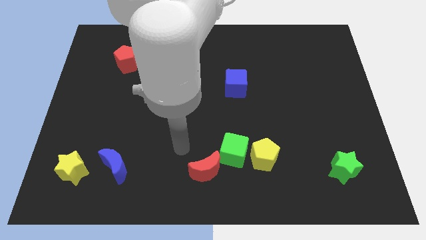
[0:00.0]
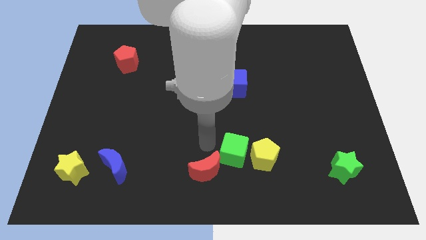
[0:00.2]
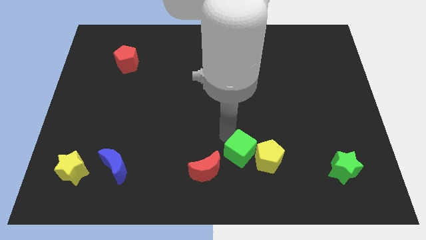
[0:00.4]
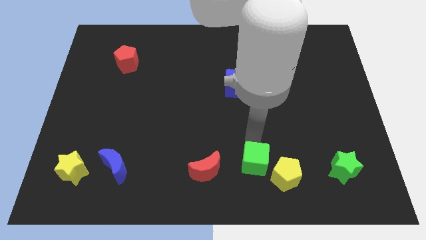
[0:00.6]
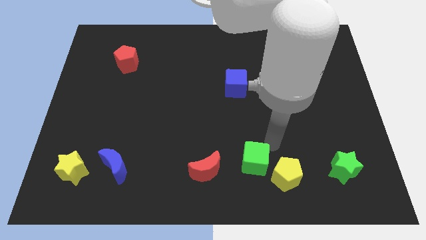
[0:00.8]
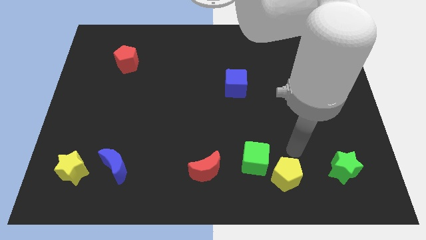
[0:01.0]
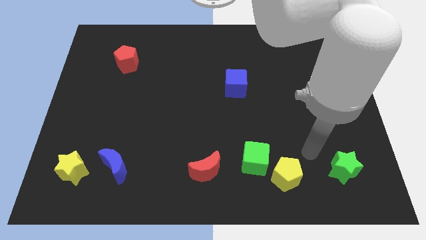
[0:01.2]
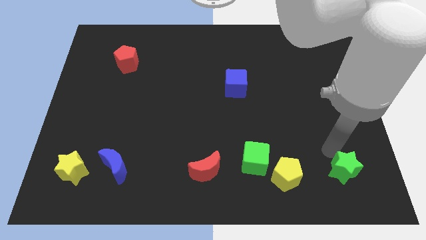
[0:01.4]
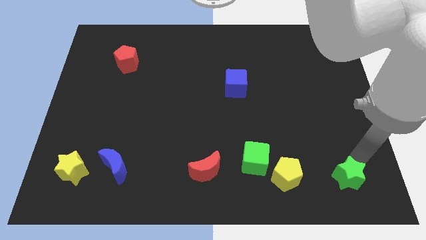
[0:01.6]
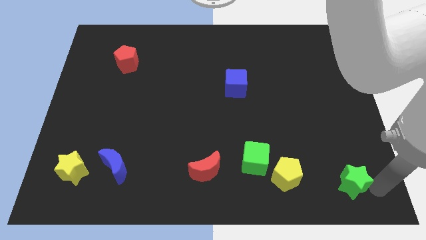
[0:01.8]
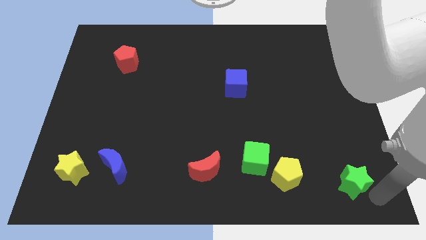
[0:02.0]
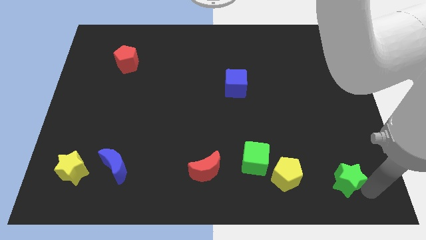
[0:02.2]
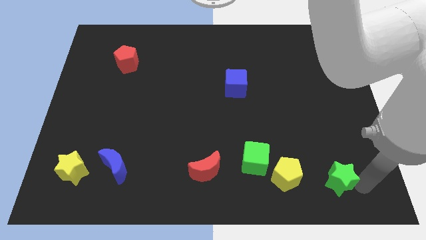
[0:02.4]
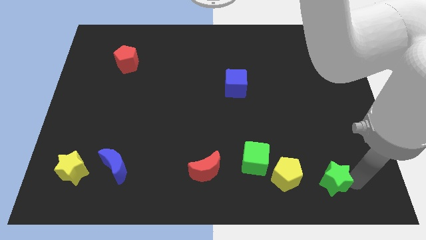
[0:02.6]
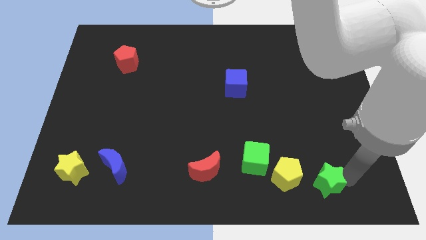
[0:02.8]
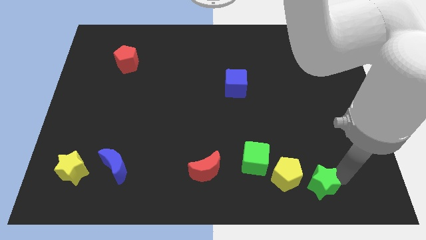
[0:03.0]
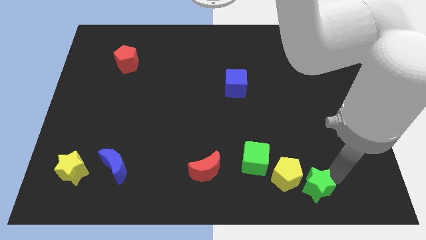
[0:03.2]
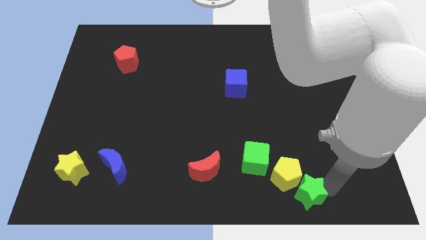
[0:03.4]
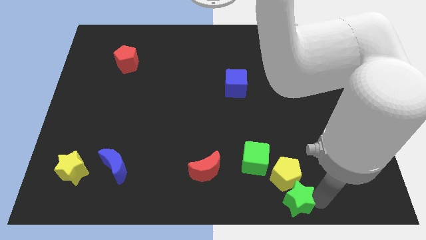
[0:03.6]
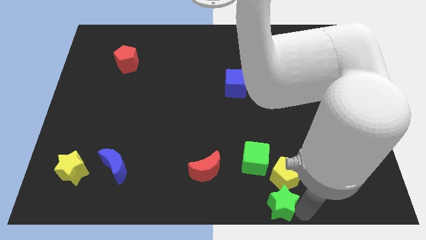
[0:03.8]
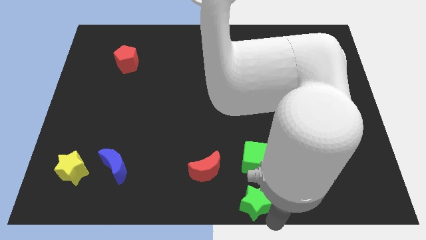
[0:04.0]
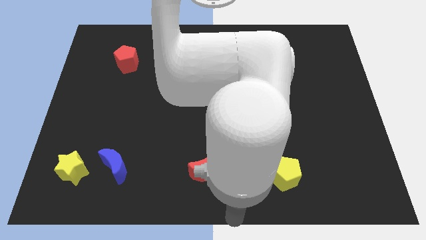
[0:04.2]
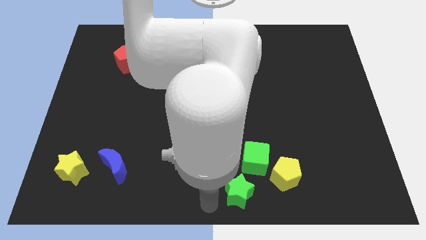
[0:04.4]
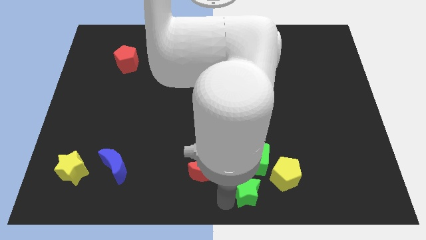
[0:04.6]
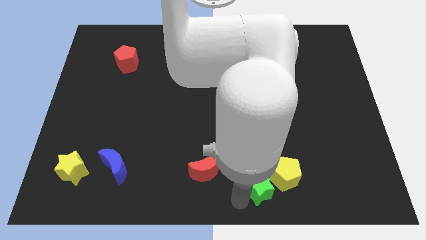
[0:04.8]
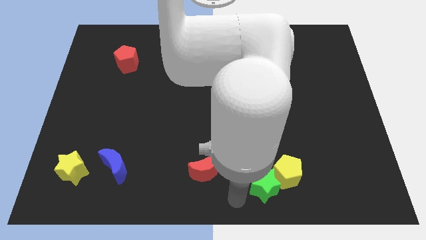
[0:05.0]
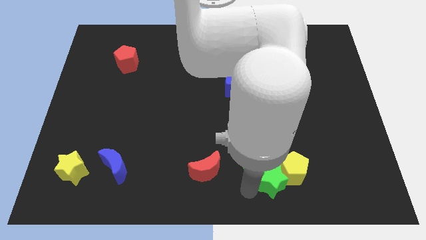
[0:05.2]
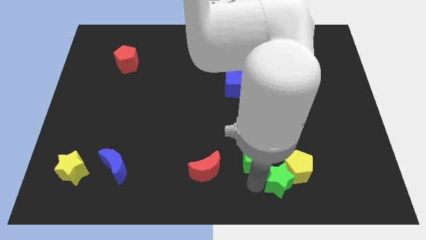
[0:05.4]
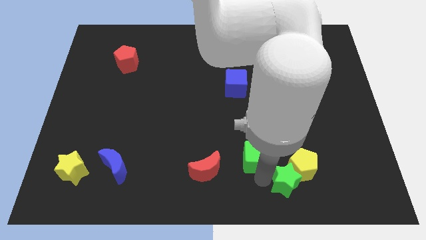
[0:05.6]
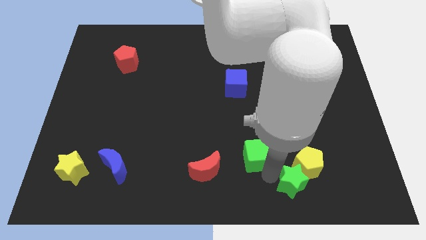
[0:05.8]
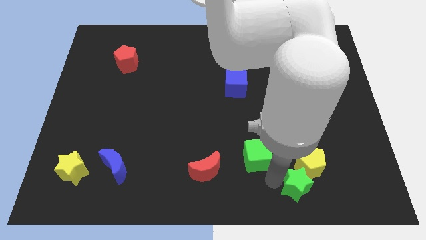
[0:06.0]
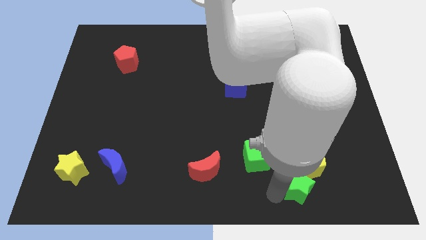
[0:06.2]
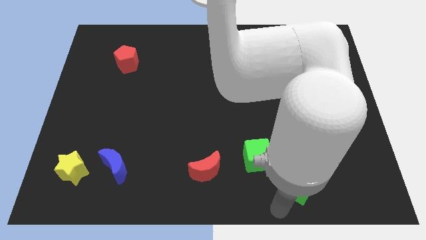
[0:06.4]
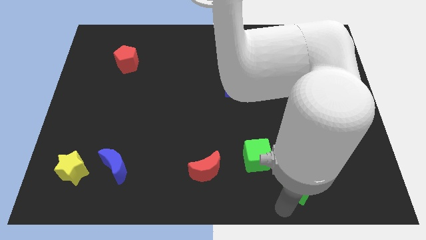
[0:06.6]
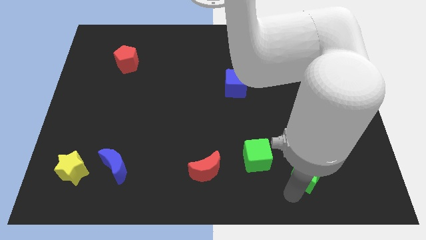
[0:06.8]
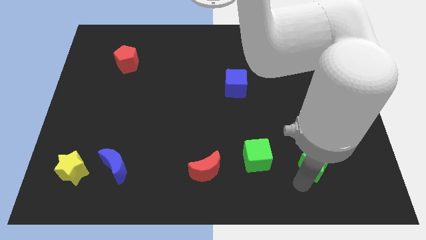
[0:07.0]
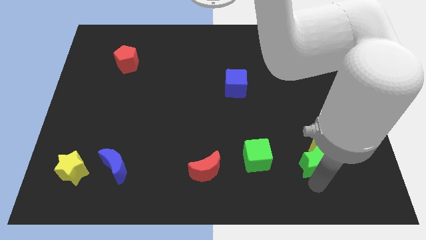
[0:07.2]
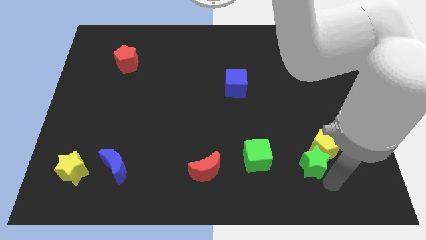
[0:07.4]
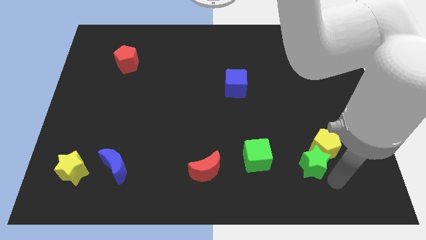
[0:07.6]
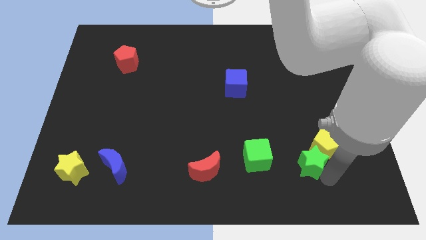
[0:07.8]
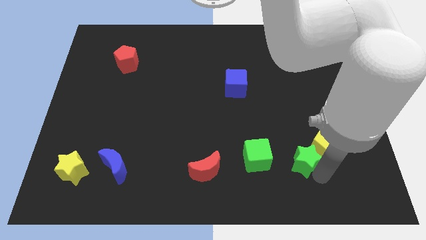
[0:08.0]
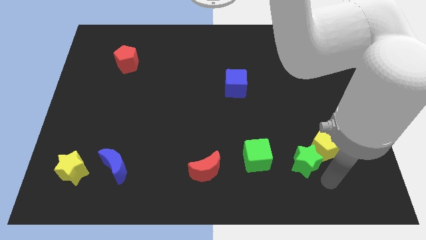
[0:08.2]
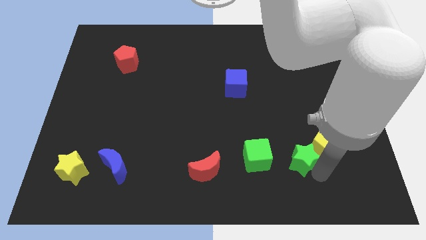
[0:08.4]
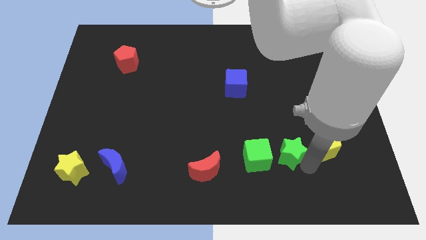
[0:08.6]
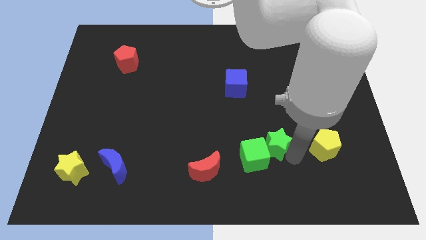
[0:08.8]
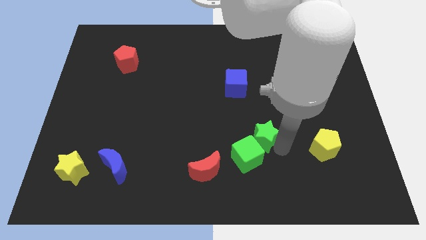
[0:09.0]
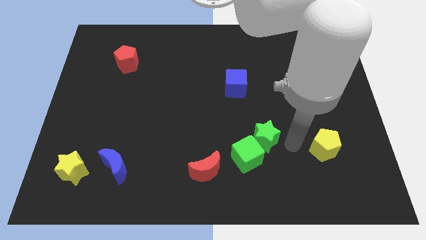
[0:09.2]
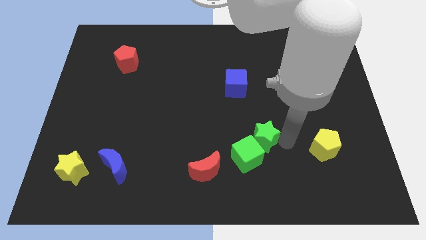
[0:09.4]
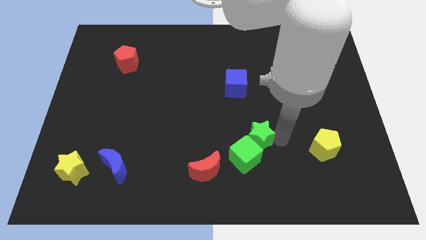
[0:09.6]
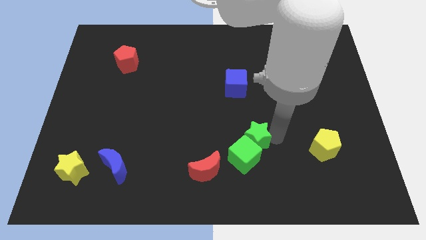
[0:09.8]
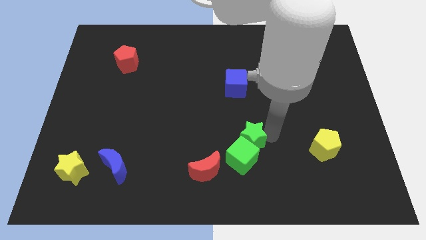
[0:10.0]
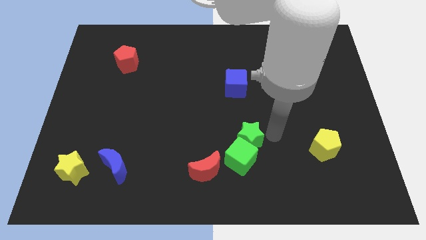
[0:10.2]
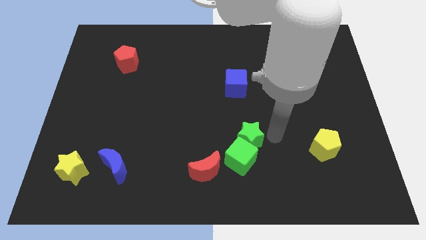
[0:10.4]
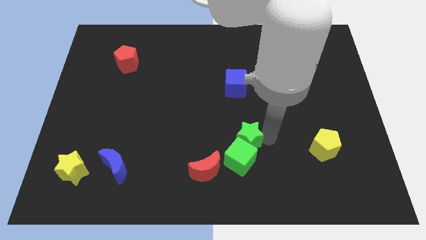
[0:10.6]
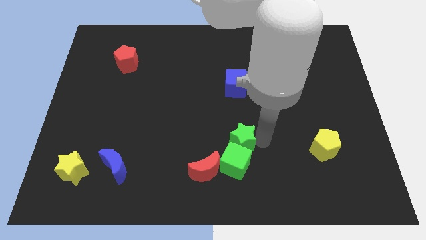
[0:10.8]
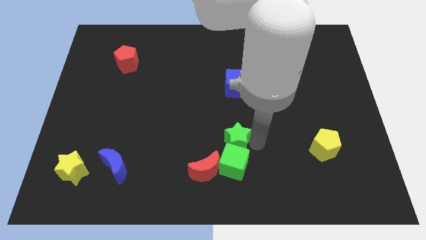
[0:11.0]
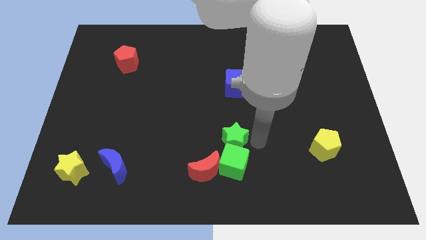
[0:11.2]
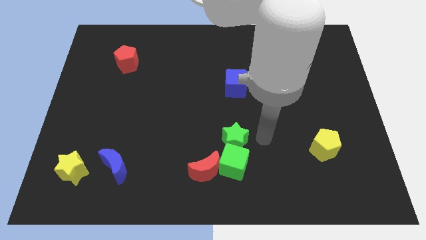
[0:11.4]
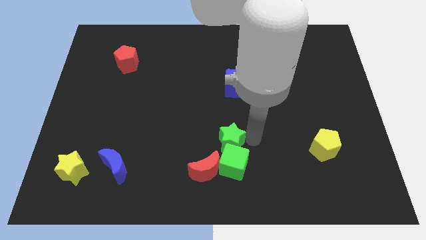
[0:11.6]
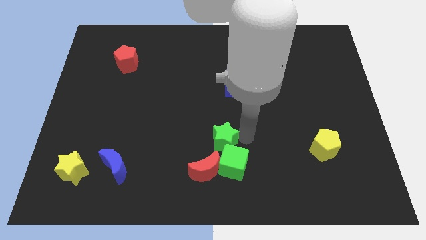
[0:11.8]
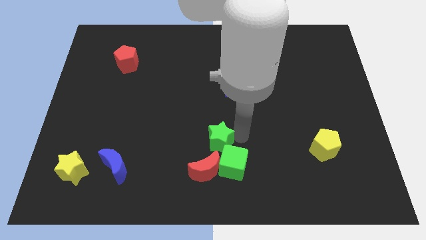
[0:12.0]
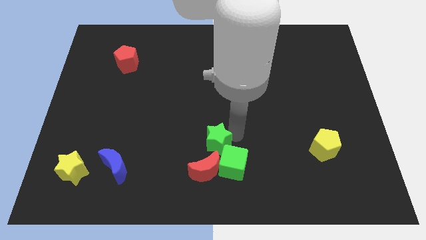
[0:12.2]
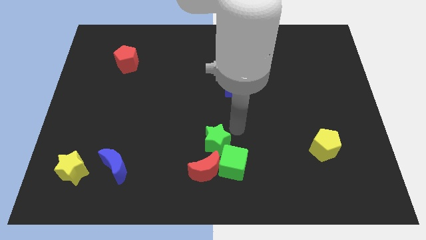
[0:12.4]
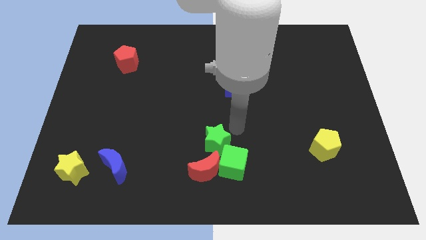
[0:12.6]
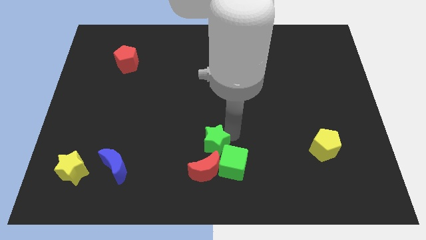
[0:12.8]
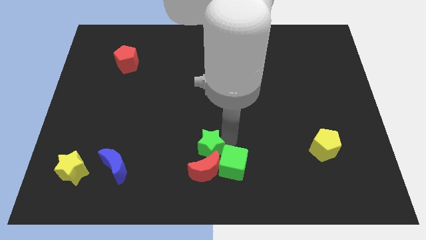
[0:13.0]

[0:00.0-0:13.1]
put the green star left of the green cube

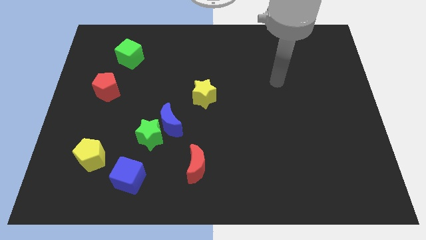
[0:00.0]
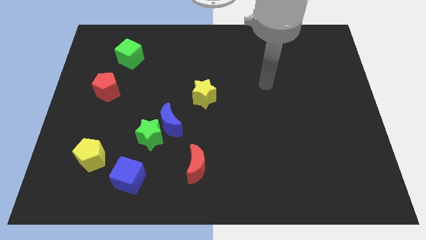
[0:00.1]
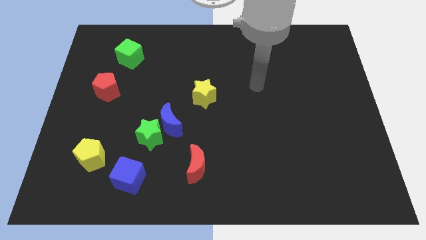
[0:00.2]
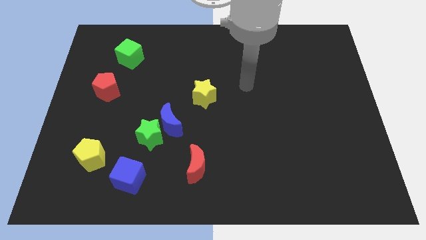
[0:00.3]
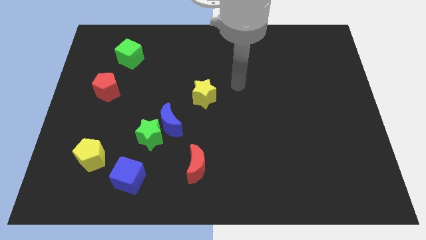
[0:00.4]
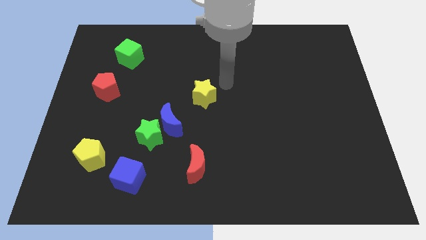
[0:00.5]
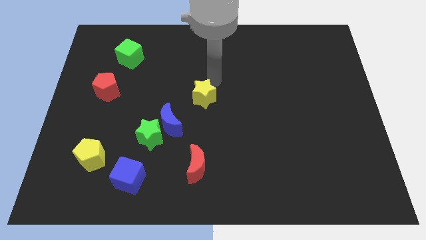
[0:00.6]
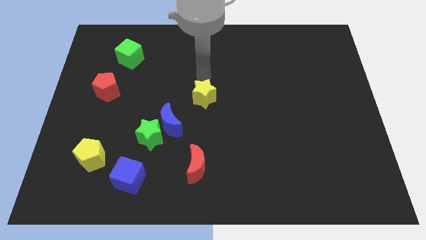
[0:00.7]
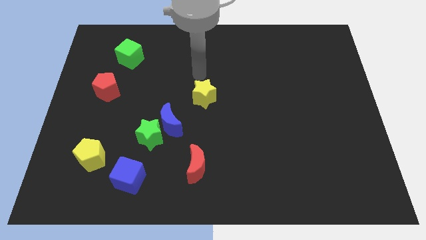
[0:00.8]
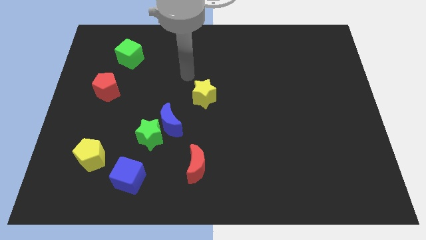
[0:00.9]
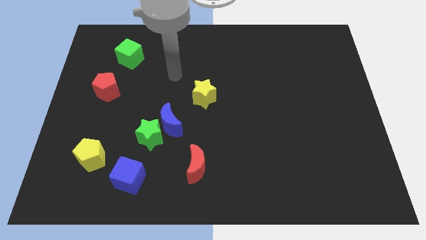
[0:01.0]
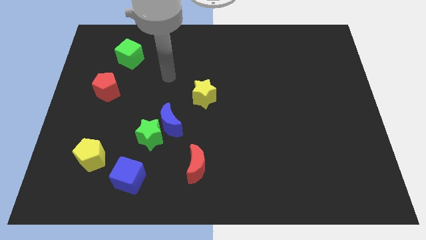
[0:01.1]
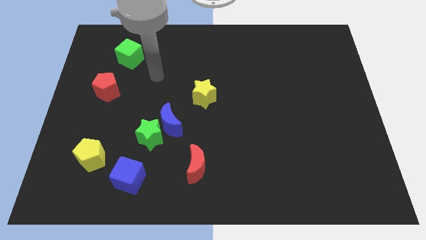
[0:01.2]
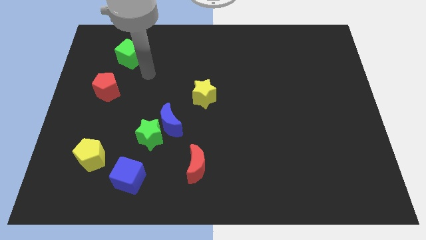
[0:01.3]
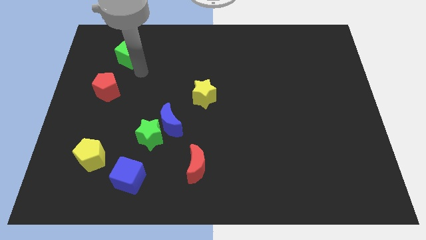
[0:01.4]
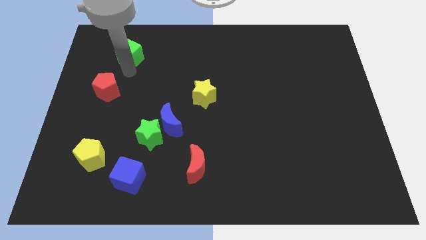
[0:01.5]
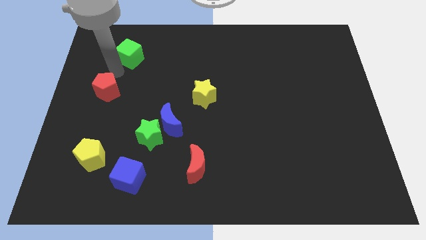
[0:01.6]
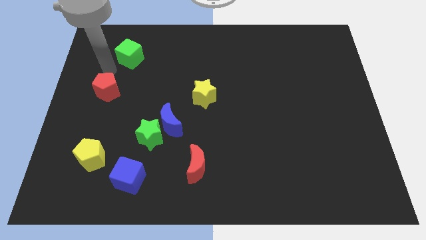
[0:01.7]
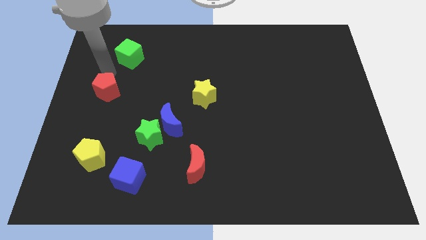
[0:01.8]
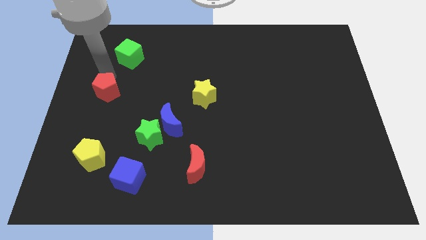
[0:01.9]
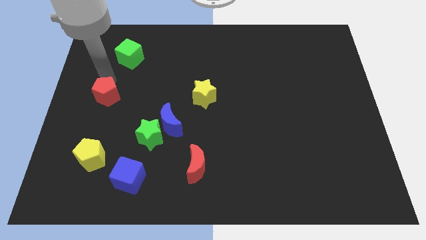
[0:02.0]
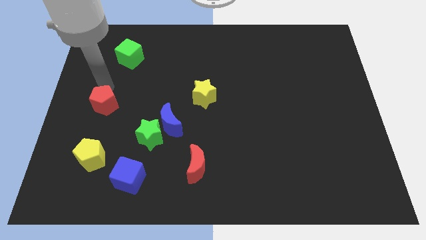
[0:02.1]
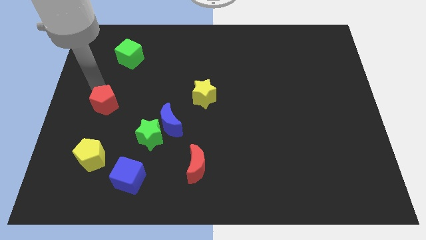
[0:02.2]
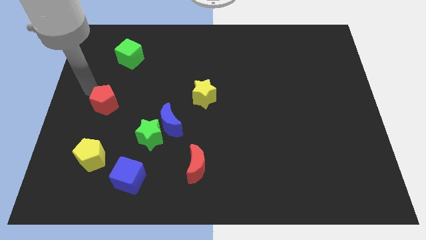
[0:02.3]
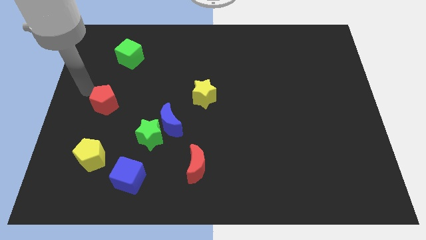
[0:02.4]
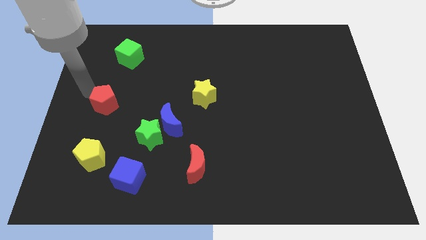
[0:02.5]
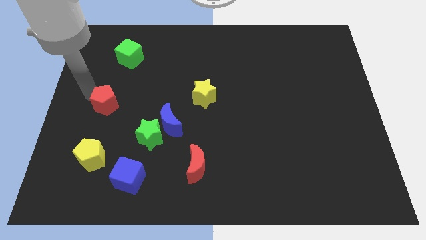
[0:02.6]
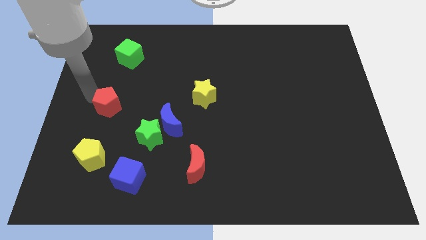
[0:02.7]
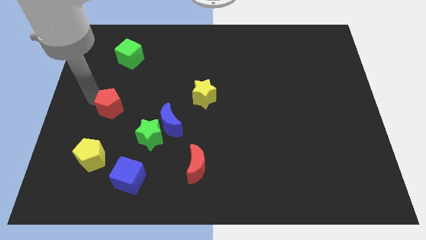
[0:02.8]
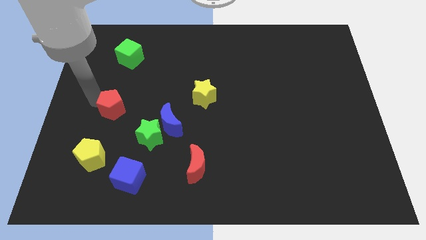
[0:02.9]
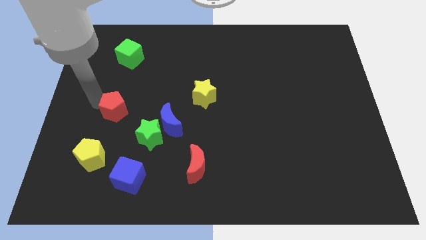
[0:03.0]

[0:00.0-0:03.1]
slide the red pentagon to the top left side of the green star
